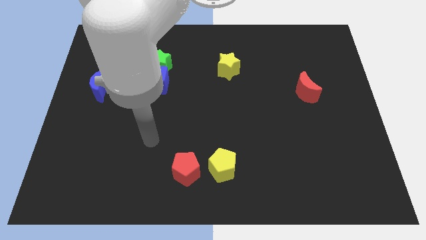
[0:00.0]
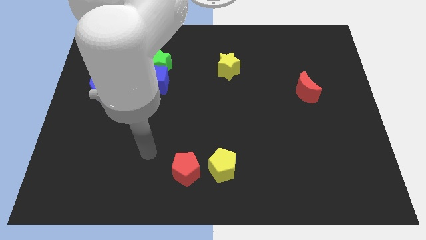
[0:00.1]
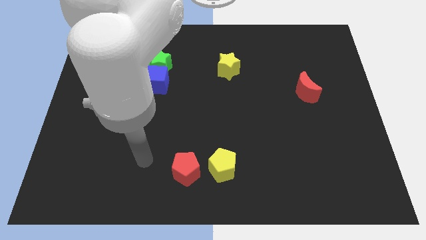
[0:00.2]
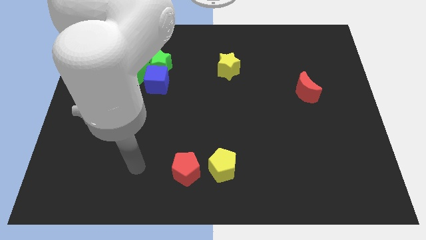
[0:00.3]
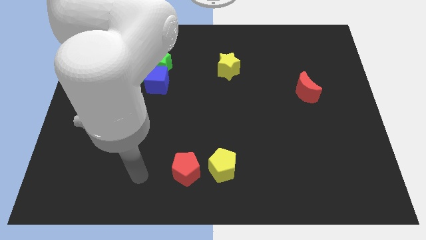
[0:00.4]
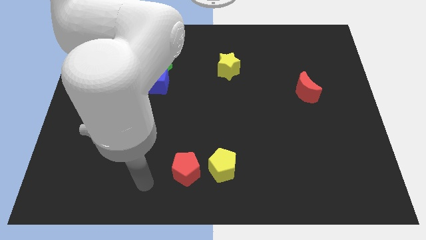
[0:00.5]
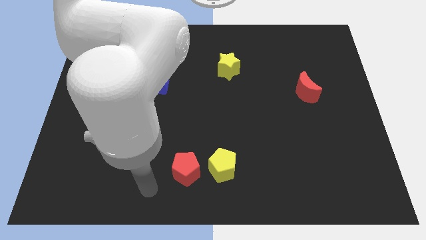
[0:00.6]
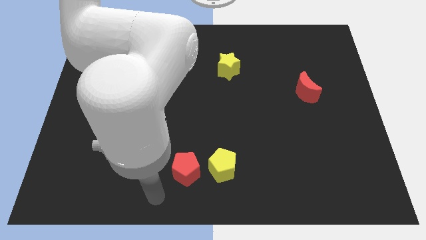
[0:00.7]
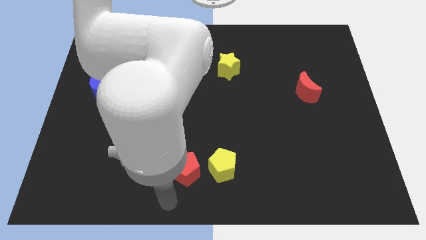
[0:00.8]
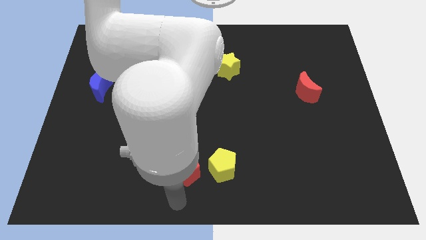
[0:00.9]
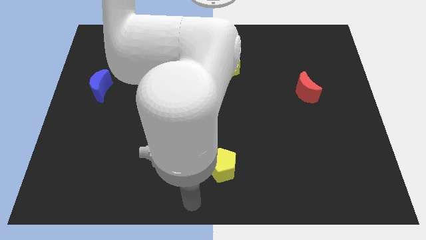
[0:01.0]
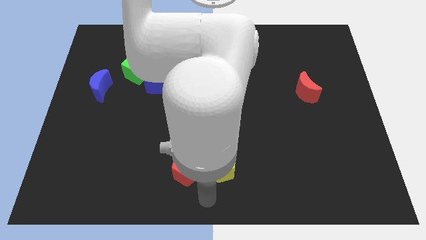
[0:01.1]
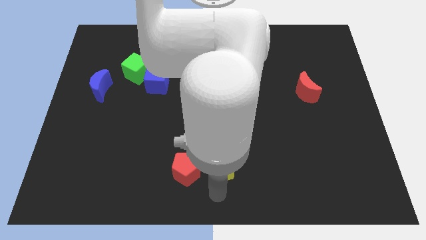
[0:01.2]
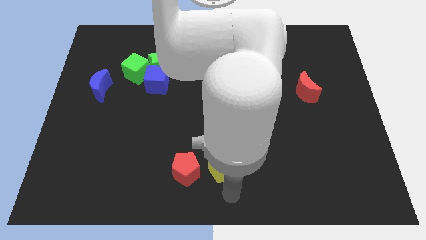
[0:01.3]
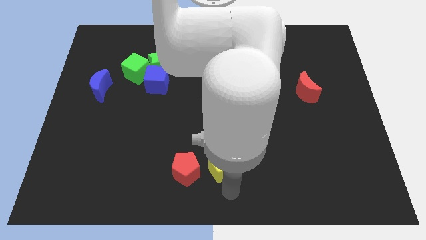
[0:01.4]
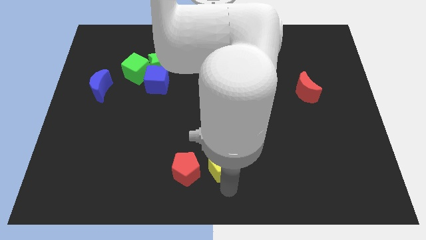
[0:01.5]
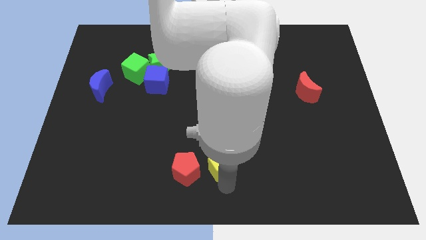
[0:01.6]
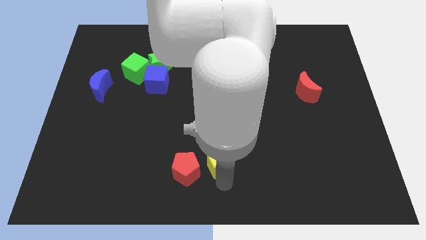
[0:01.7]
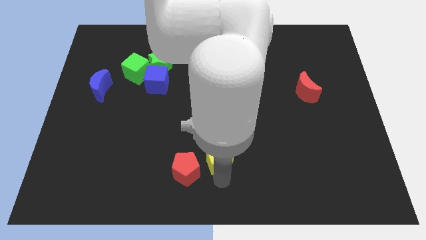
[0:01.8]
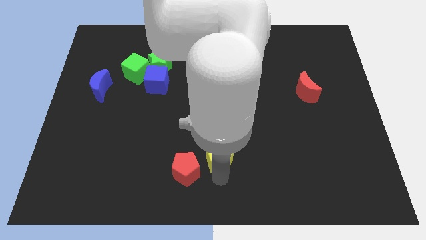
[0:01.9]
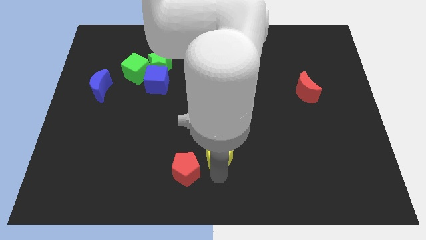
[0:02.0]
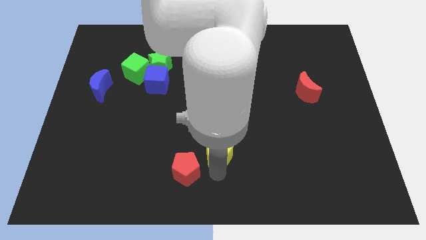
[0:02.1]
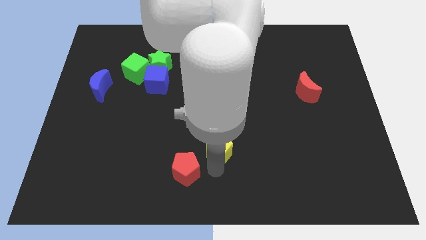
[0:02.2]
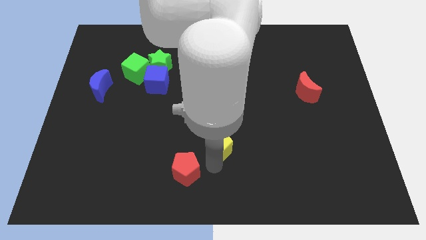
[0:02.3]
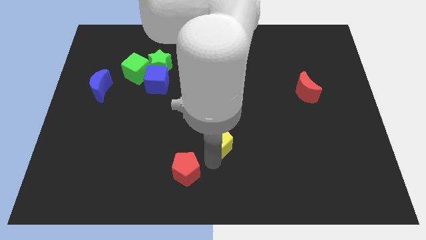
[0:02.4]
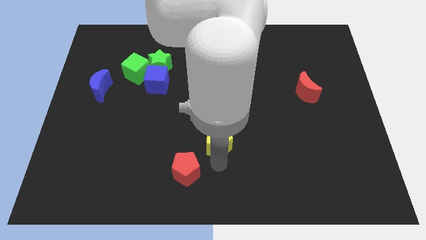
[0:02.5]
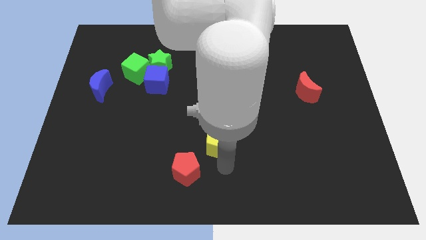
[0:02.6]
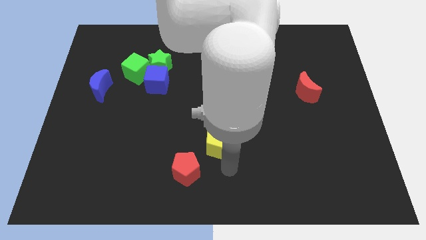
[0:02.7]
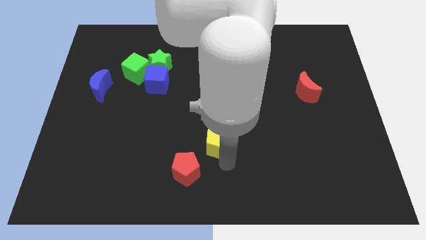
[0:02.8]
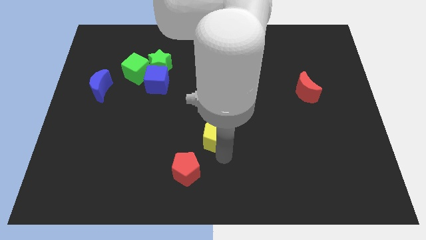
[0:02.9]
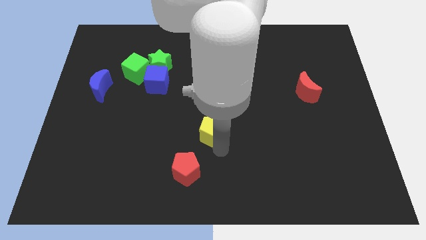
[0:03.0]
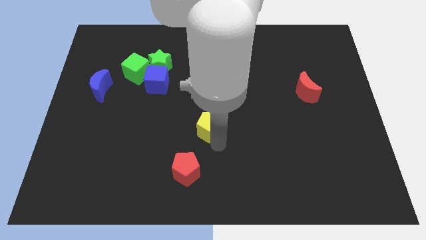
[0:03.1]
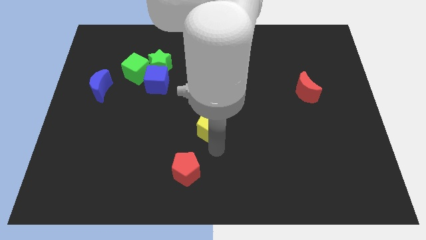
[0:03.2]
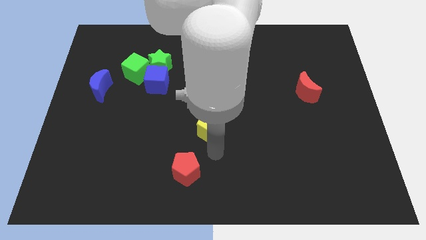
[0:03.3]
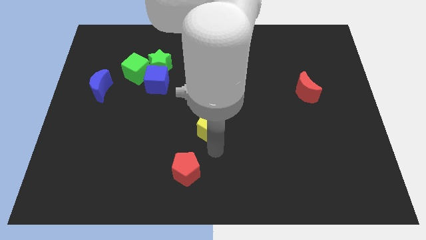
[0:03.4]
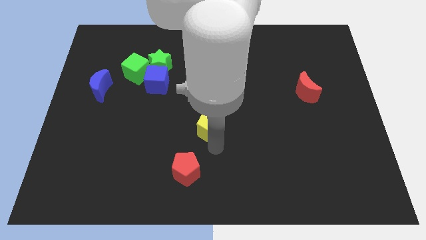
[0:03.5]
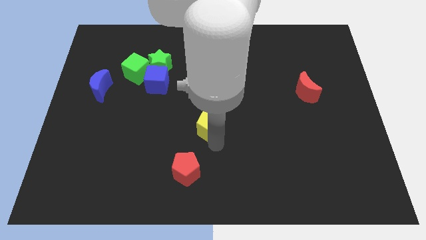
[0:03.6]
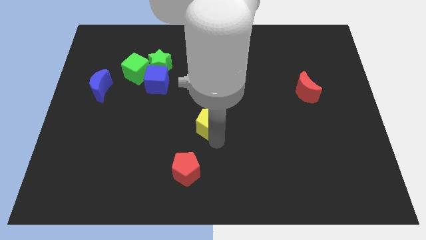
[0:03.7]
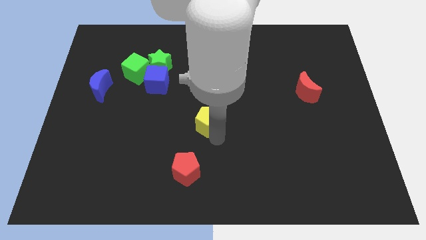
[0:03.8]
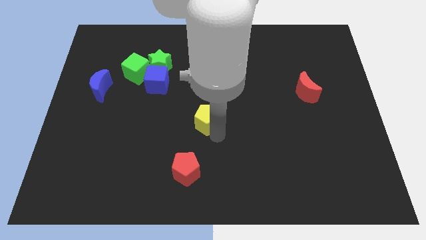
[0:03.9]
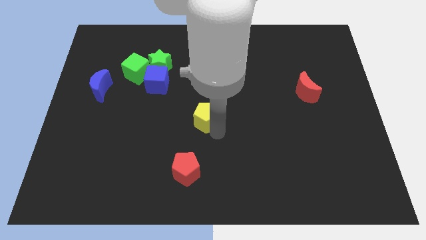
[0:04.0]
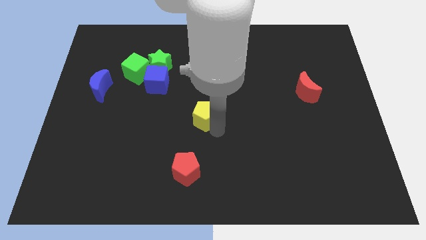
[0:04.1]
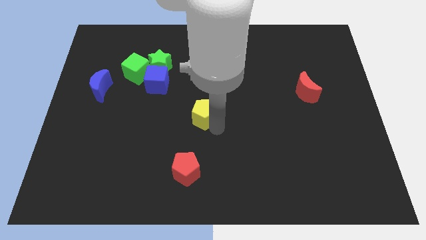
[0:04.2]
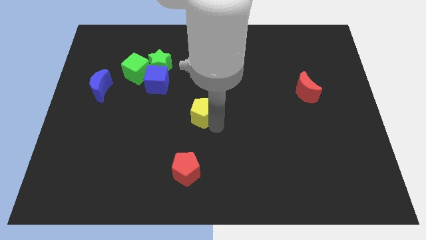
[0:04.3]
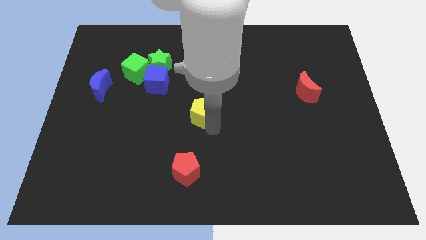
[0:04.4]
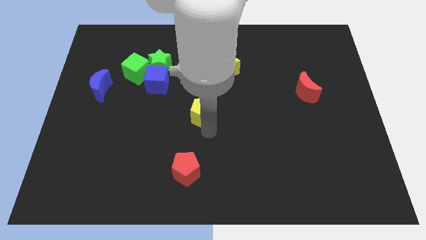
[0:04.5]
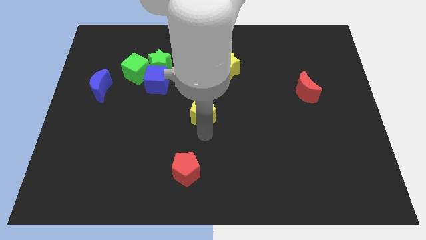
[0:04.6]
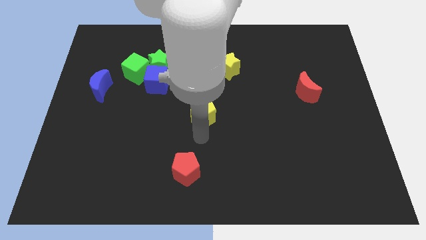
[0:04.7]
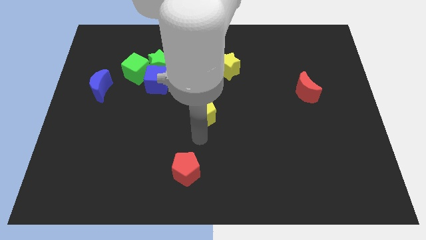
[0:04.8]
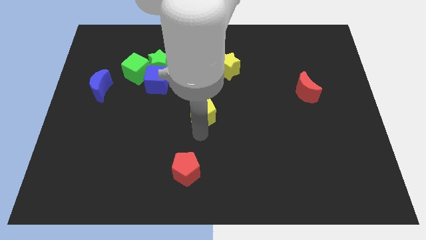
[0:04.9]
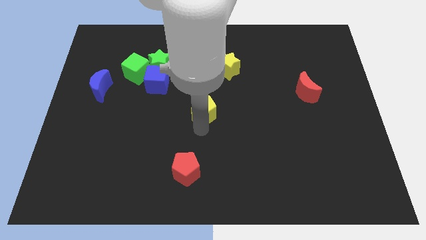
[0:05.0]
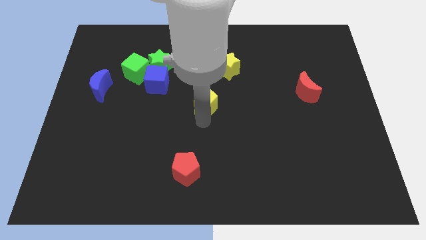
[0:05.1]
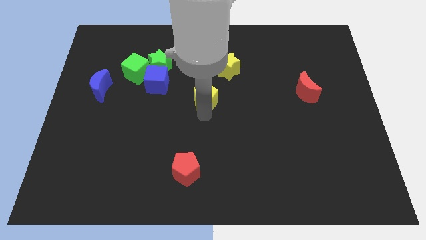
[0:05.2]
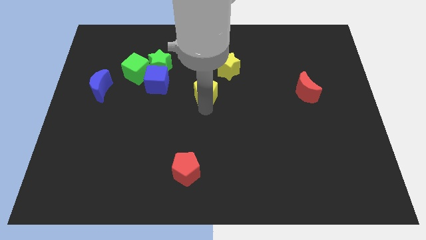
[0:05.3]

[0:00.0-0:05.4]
put the yellow pentagon to the right side of the blue cube

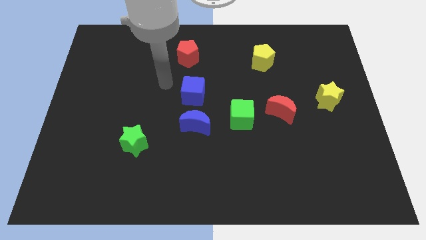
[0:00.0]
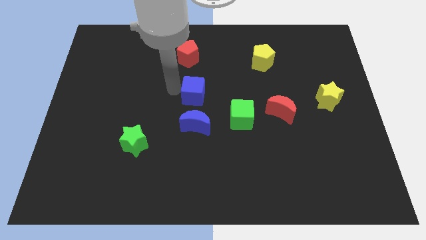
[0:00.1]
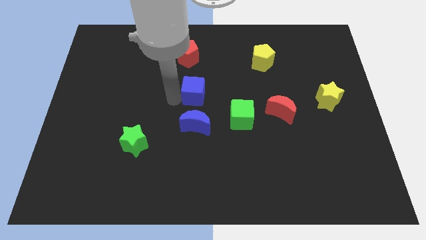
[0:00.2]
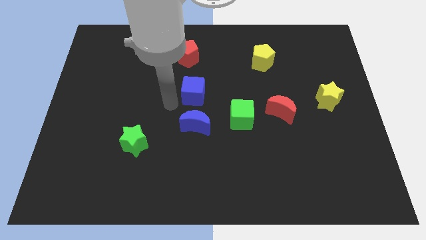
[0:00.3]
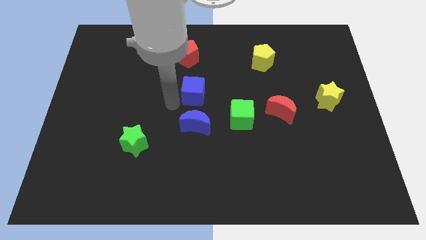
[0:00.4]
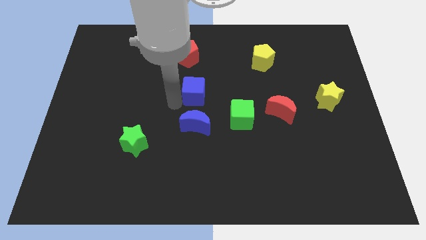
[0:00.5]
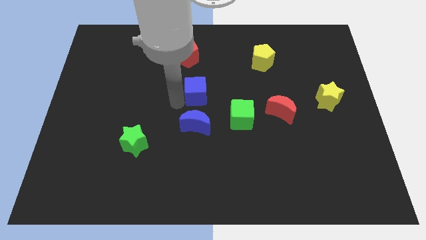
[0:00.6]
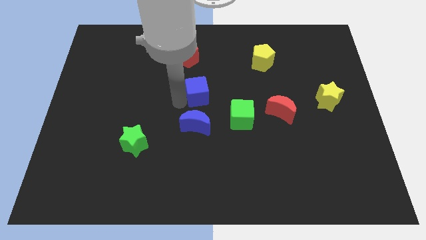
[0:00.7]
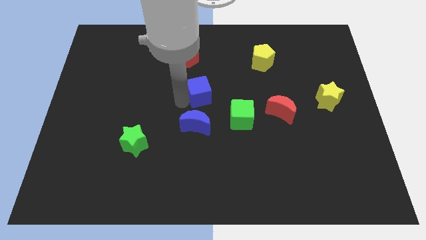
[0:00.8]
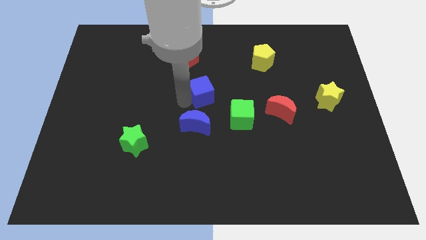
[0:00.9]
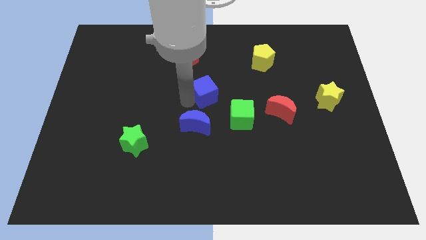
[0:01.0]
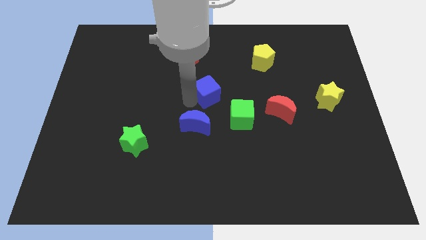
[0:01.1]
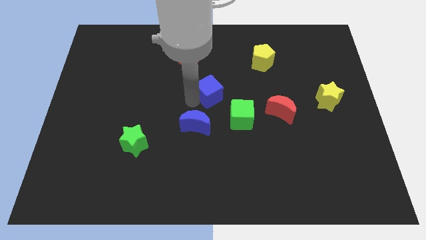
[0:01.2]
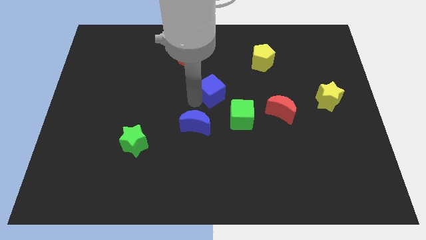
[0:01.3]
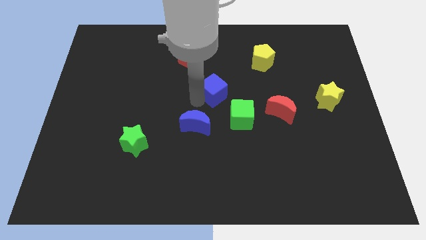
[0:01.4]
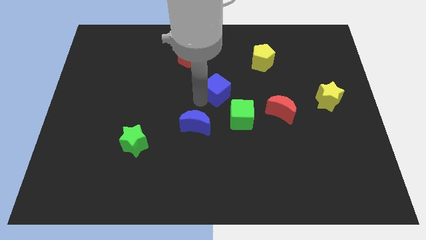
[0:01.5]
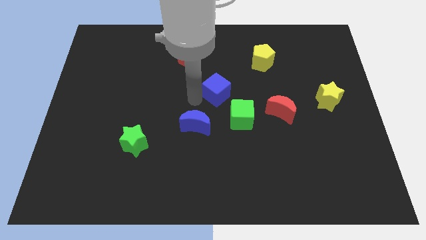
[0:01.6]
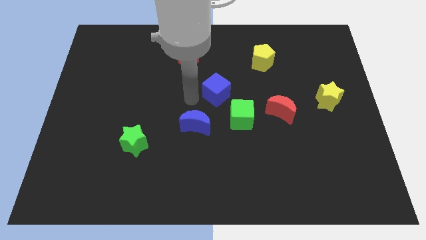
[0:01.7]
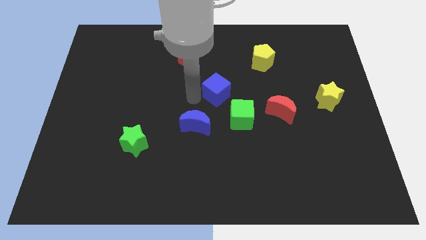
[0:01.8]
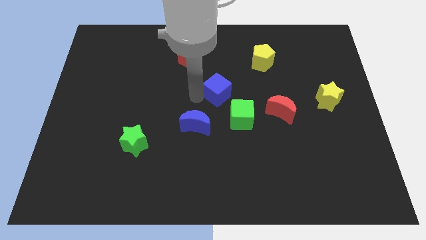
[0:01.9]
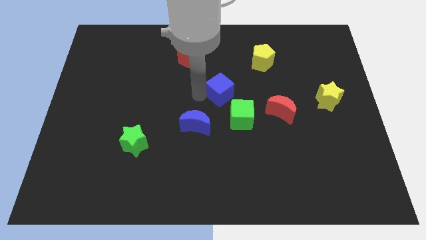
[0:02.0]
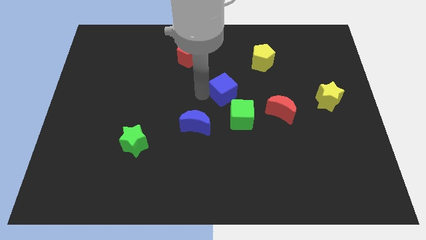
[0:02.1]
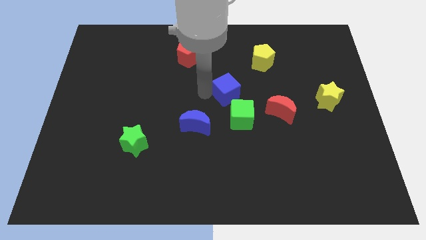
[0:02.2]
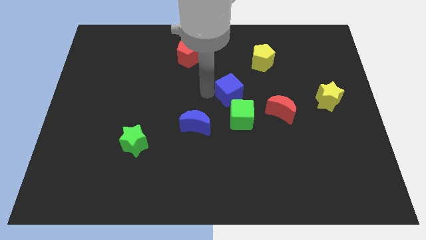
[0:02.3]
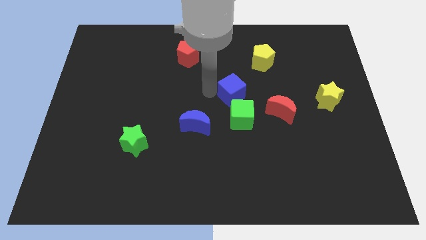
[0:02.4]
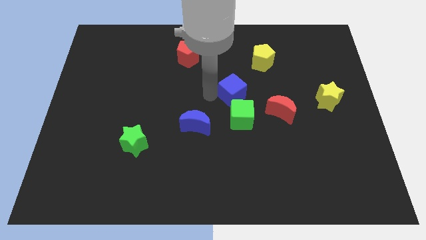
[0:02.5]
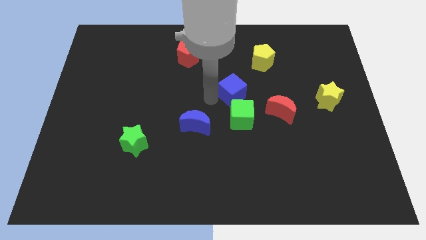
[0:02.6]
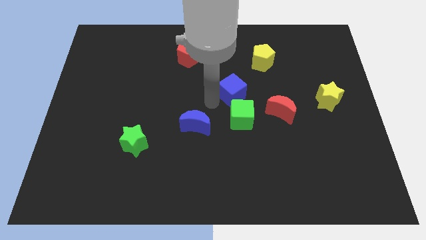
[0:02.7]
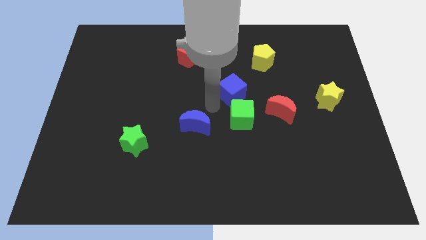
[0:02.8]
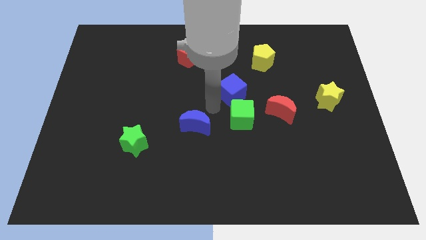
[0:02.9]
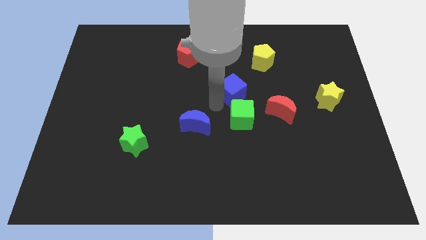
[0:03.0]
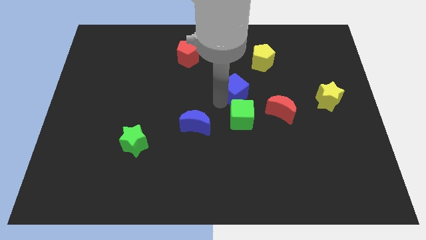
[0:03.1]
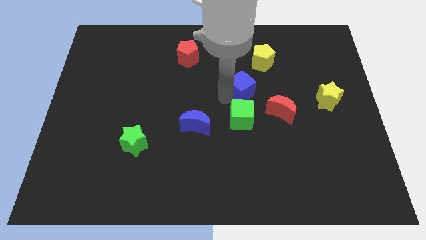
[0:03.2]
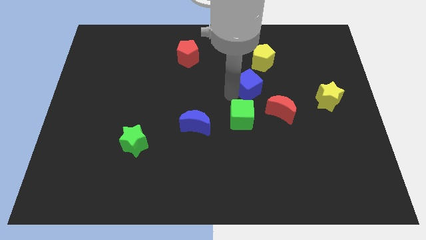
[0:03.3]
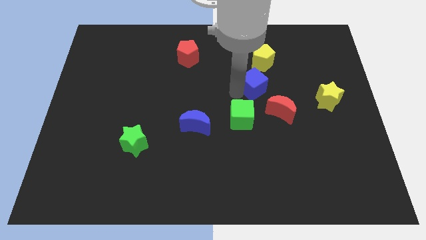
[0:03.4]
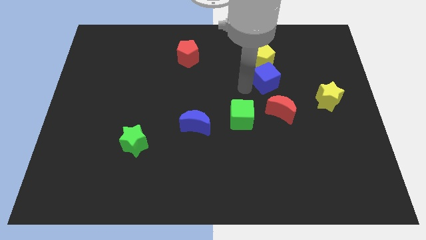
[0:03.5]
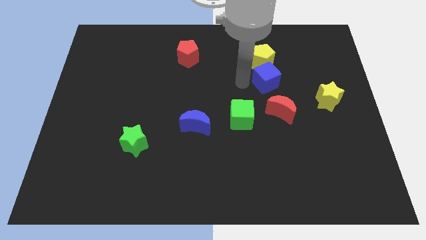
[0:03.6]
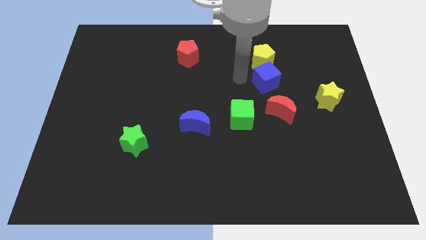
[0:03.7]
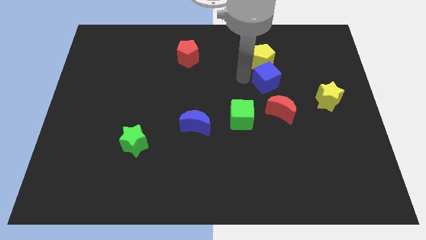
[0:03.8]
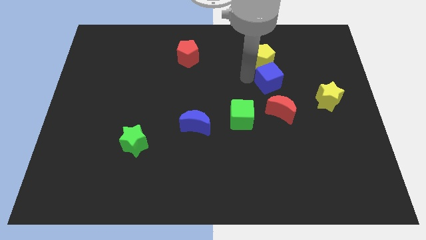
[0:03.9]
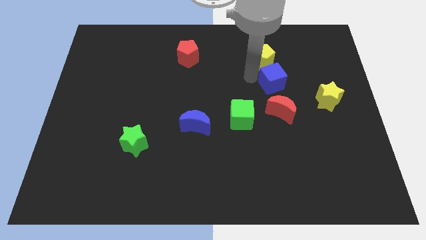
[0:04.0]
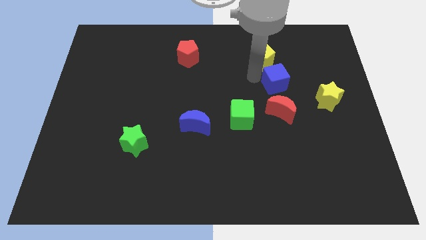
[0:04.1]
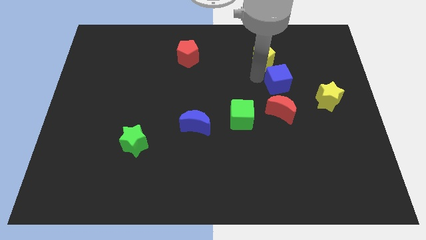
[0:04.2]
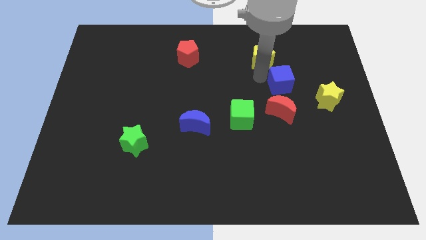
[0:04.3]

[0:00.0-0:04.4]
slide the blue cube to the top left of the yellow star
